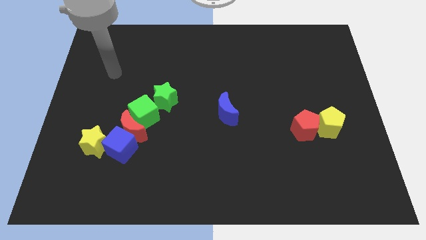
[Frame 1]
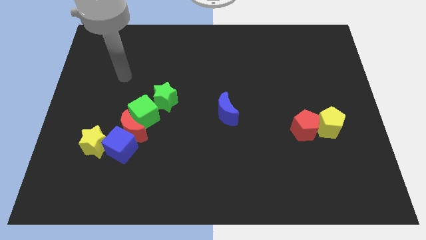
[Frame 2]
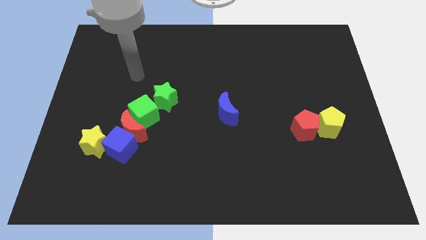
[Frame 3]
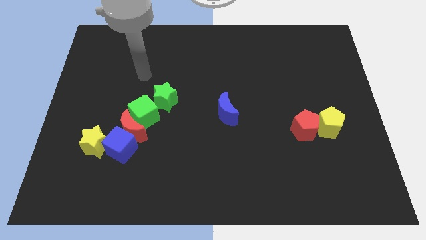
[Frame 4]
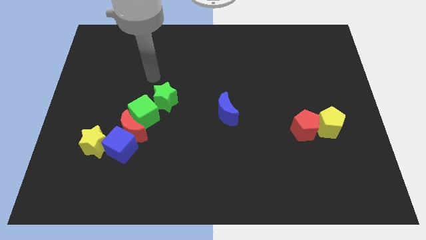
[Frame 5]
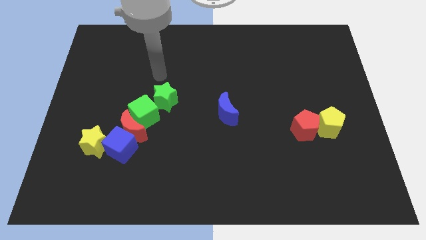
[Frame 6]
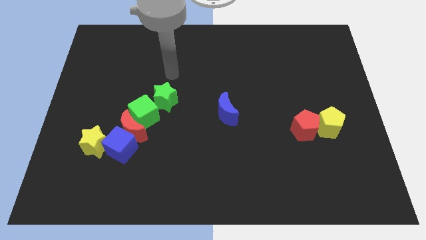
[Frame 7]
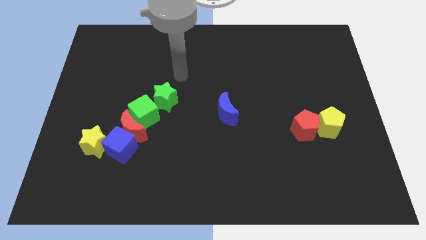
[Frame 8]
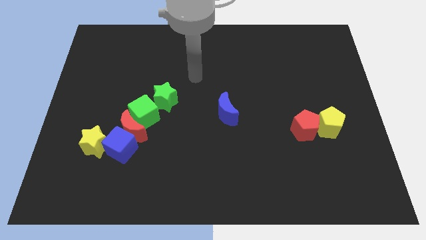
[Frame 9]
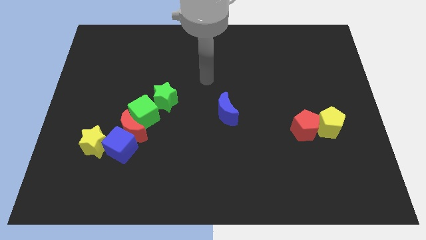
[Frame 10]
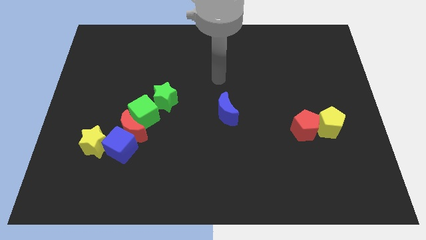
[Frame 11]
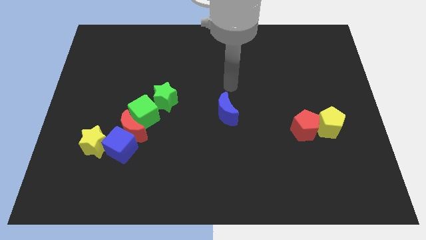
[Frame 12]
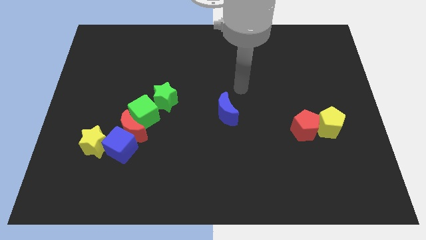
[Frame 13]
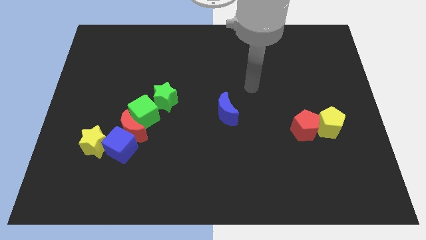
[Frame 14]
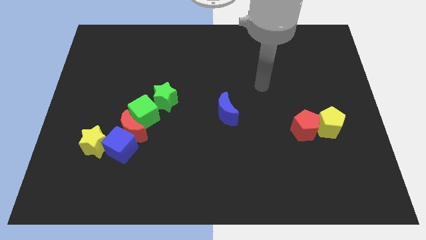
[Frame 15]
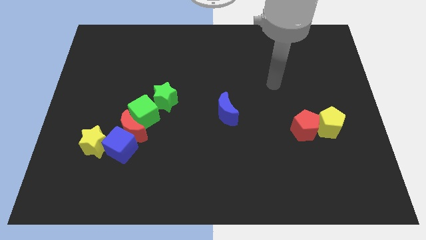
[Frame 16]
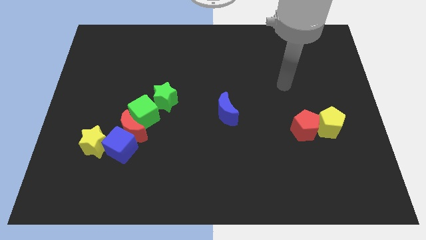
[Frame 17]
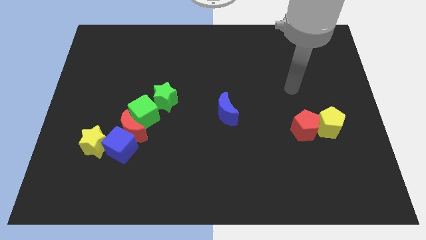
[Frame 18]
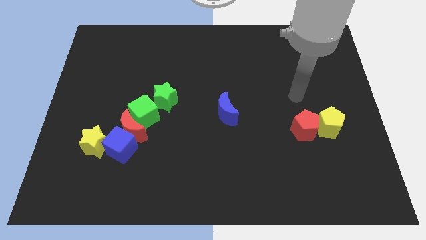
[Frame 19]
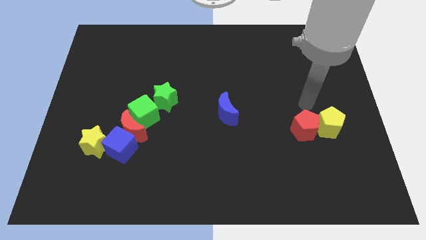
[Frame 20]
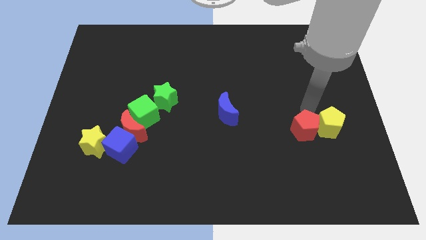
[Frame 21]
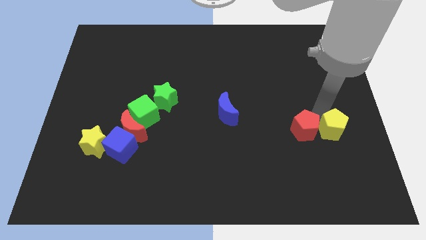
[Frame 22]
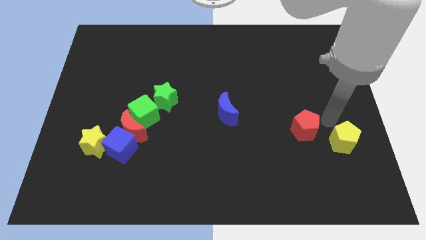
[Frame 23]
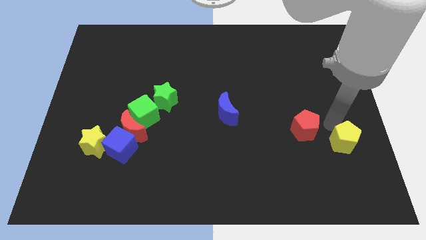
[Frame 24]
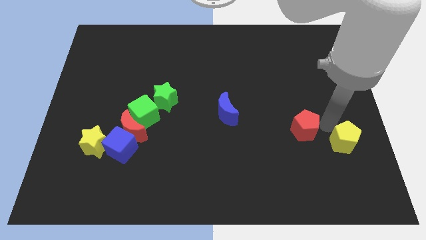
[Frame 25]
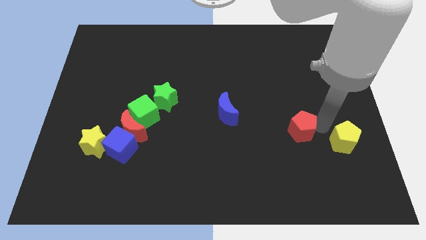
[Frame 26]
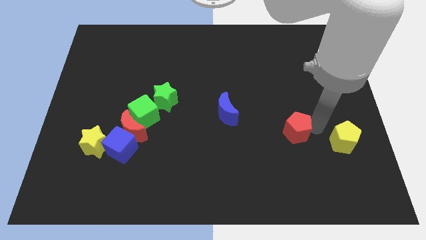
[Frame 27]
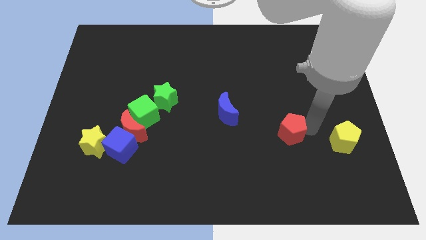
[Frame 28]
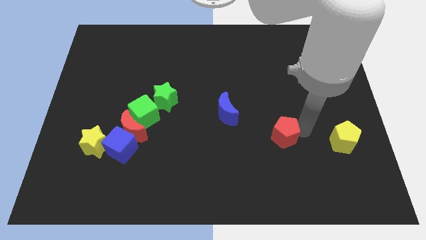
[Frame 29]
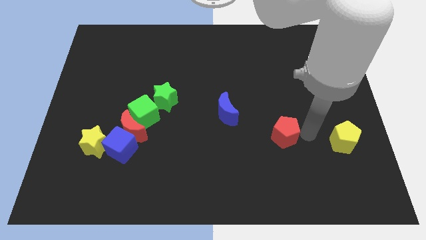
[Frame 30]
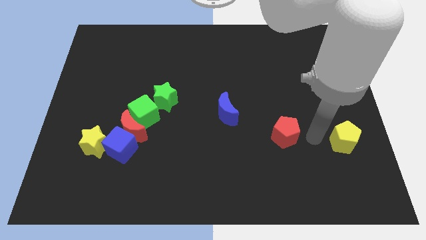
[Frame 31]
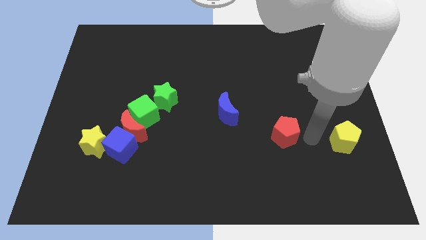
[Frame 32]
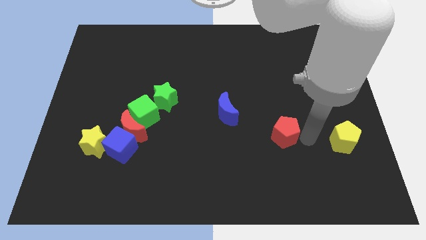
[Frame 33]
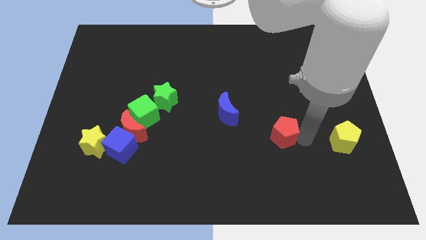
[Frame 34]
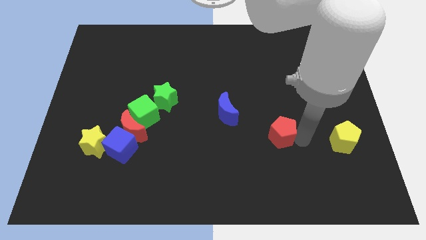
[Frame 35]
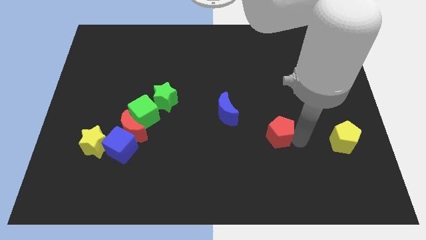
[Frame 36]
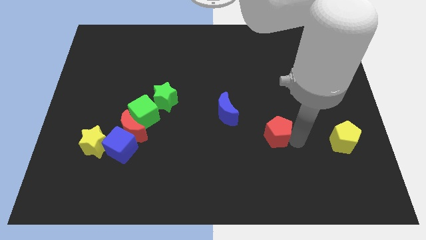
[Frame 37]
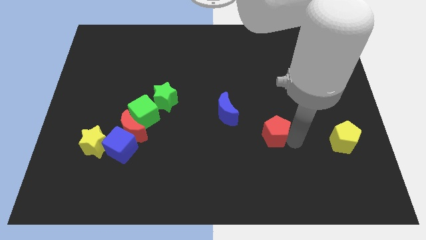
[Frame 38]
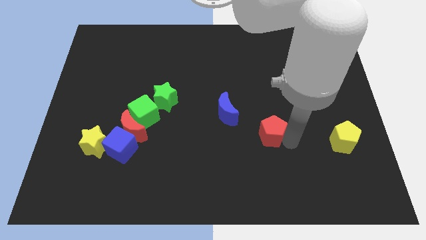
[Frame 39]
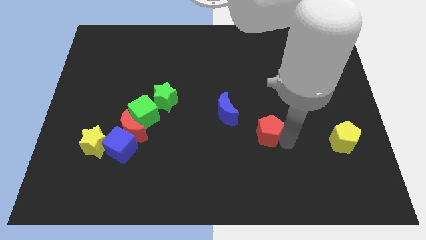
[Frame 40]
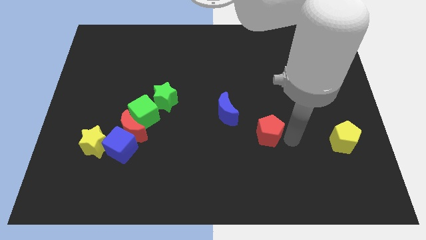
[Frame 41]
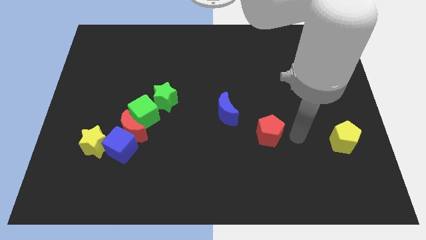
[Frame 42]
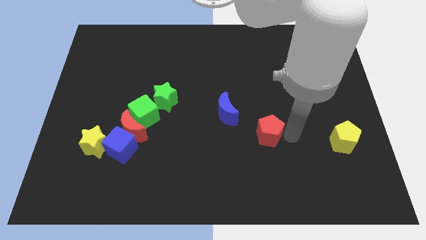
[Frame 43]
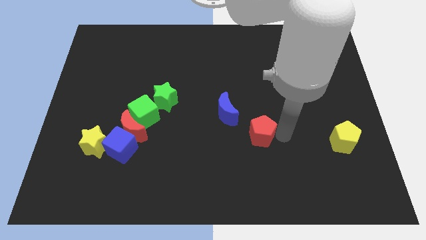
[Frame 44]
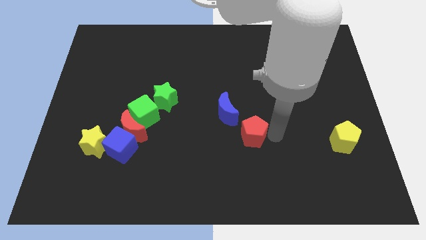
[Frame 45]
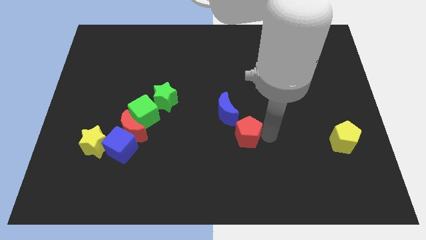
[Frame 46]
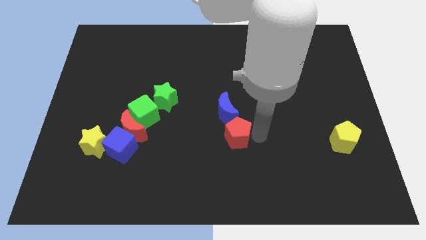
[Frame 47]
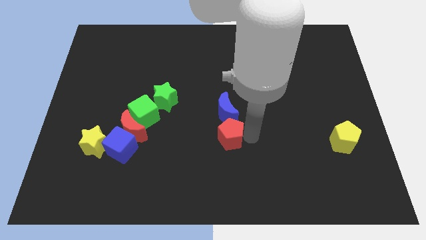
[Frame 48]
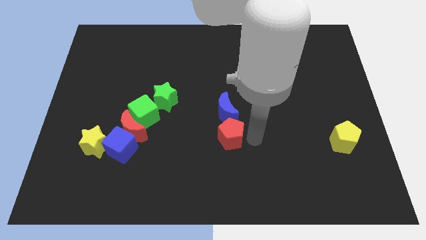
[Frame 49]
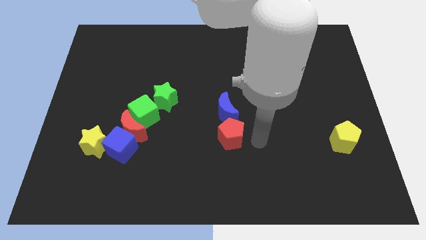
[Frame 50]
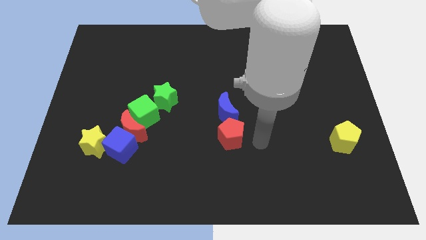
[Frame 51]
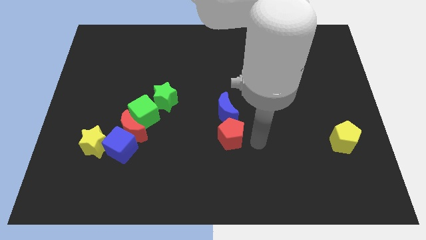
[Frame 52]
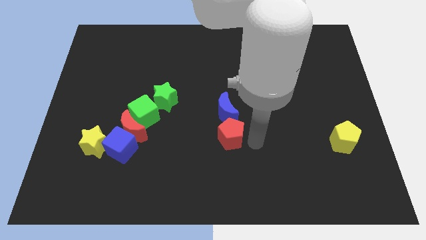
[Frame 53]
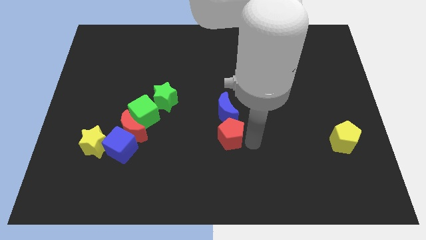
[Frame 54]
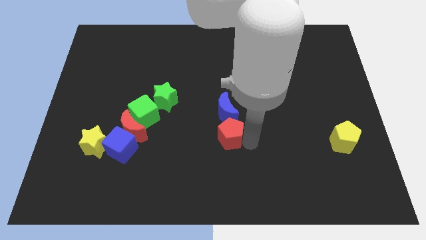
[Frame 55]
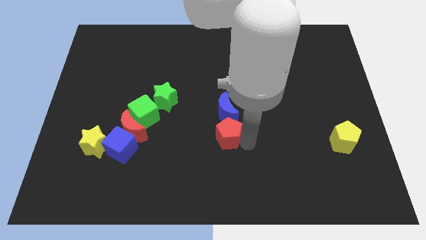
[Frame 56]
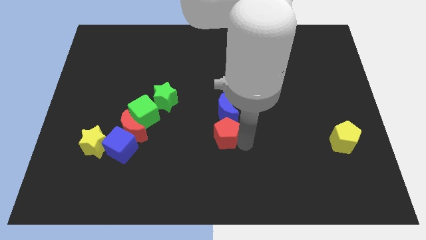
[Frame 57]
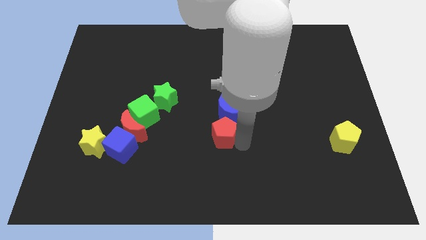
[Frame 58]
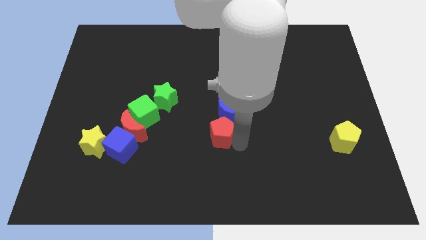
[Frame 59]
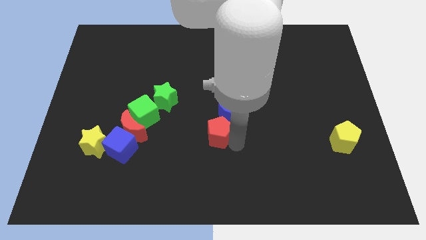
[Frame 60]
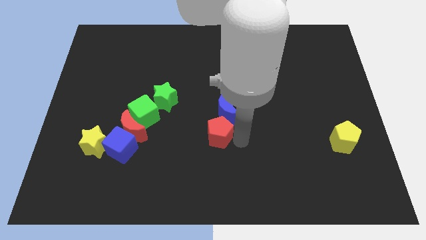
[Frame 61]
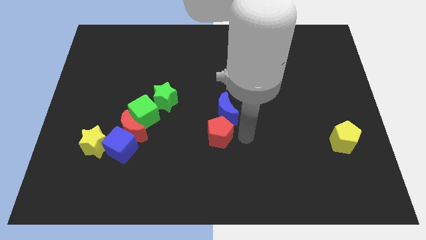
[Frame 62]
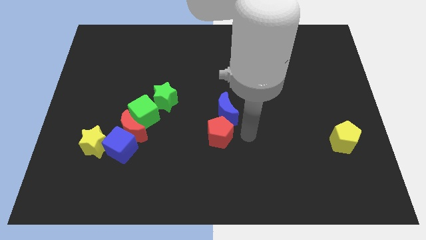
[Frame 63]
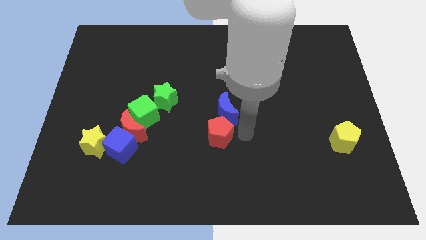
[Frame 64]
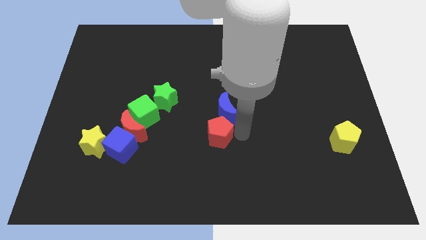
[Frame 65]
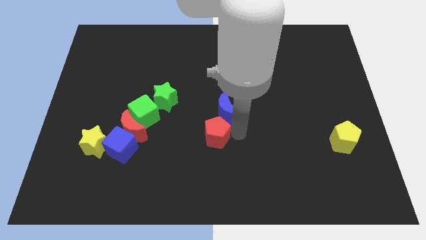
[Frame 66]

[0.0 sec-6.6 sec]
push the red pentagon to the left

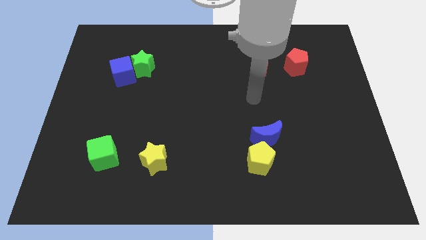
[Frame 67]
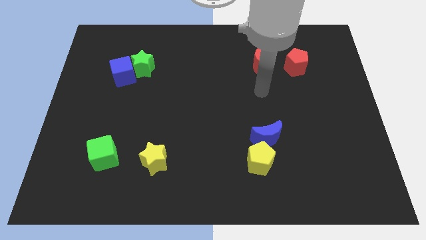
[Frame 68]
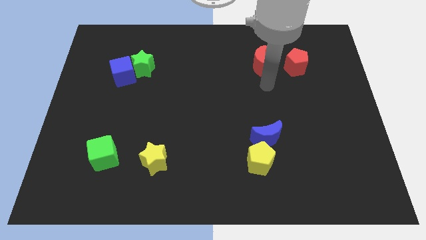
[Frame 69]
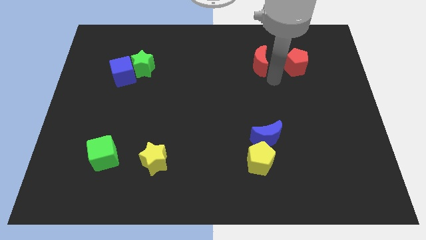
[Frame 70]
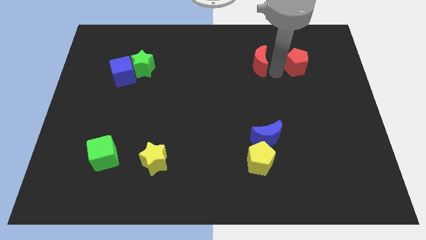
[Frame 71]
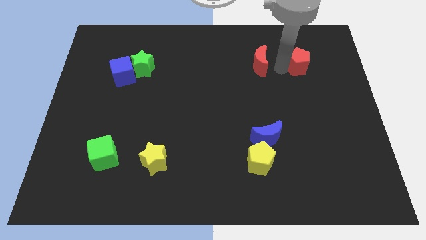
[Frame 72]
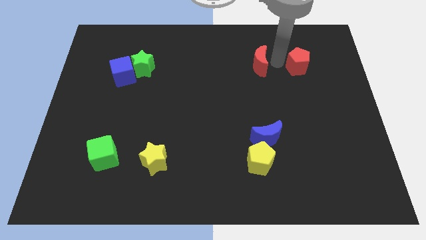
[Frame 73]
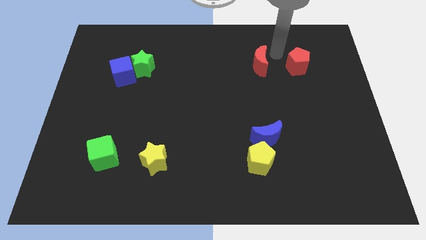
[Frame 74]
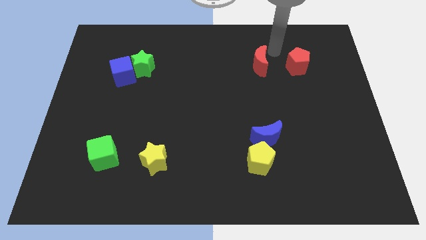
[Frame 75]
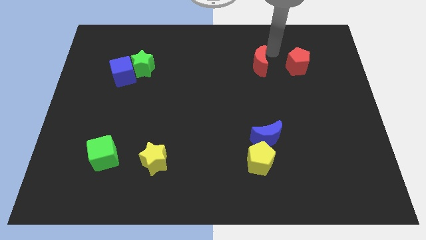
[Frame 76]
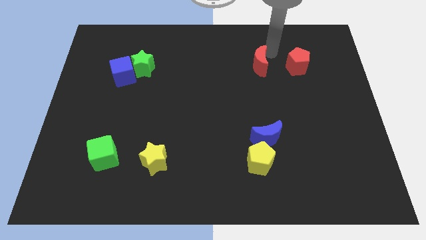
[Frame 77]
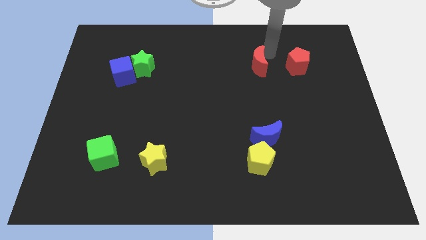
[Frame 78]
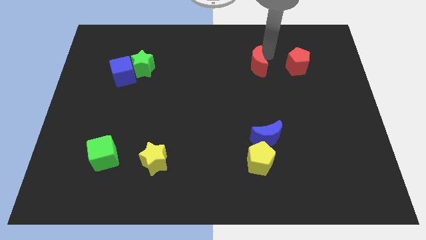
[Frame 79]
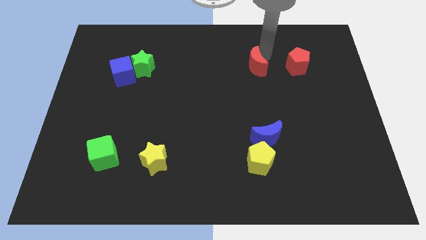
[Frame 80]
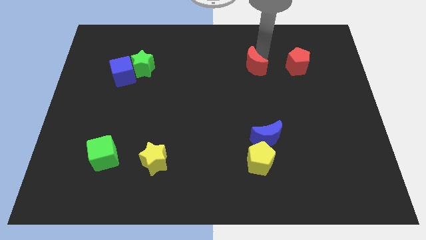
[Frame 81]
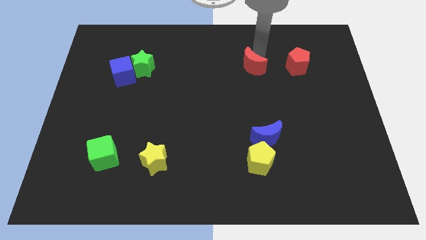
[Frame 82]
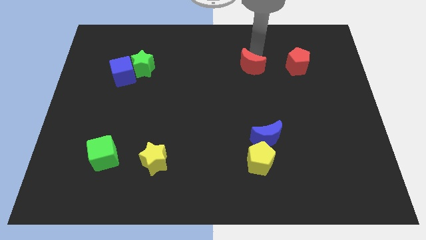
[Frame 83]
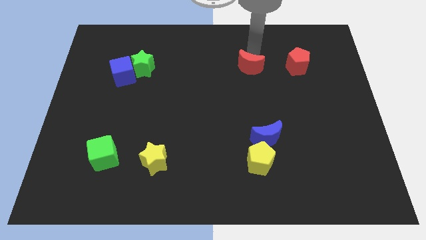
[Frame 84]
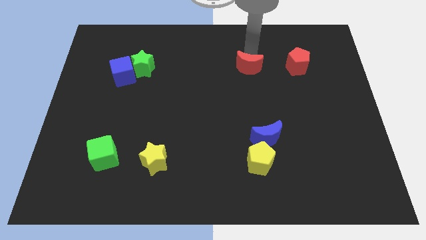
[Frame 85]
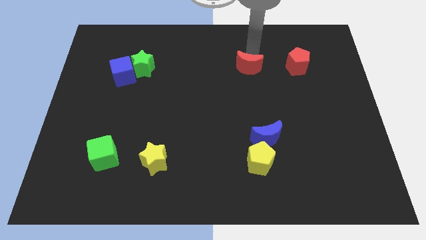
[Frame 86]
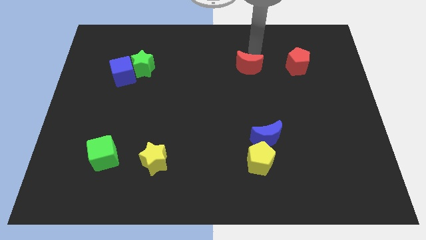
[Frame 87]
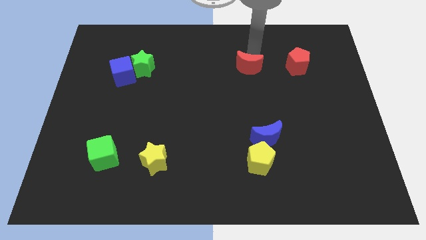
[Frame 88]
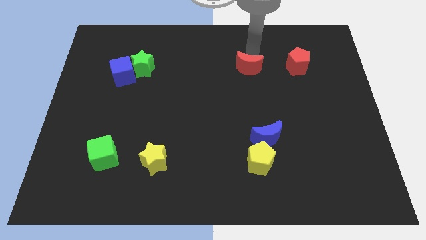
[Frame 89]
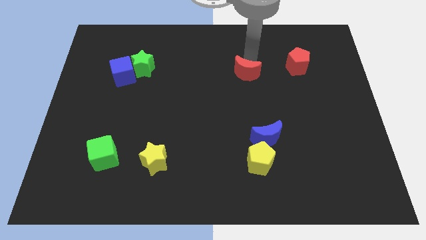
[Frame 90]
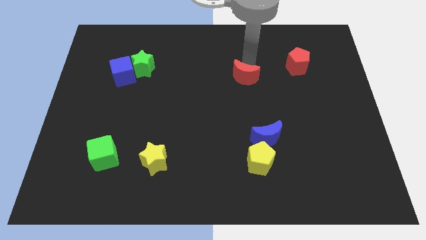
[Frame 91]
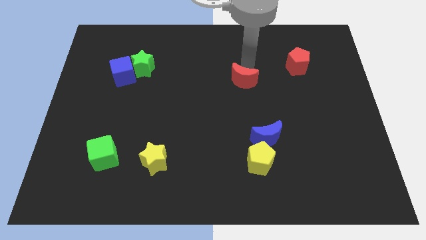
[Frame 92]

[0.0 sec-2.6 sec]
slide the red moon down and then left somewhat
